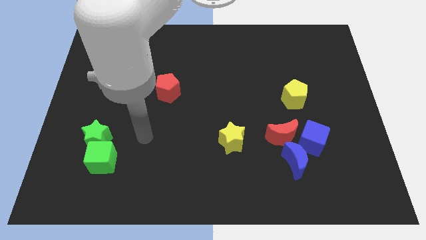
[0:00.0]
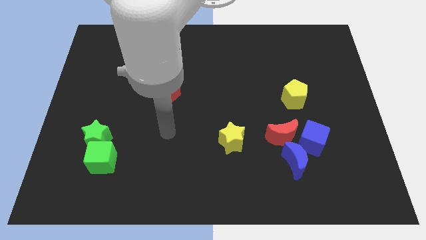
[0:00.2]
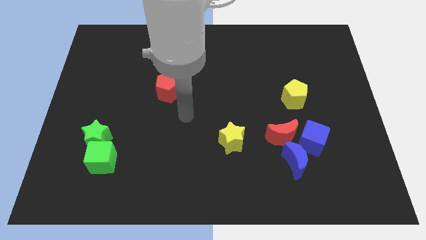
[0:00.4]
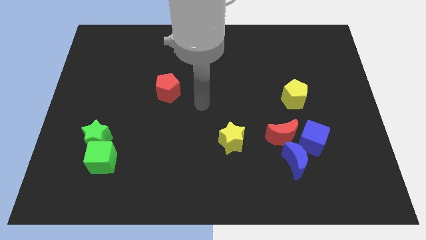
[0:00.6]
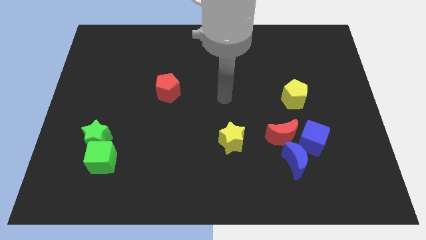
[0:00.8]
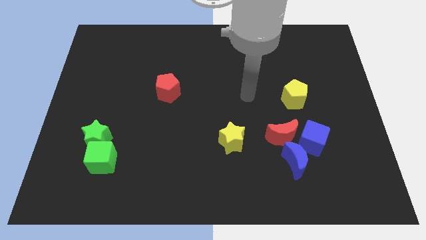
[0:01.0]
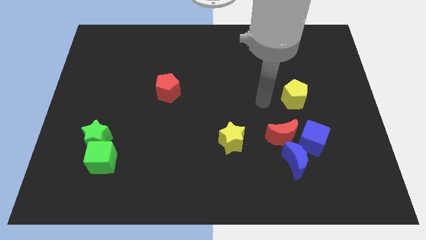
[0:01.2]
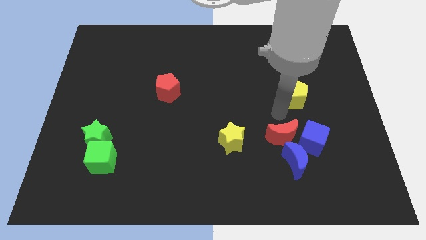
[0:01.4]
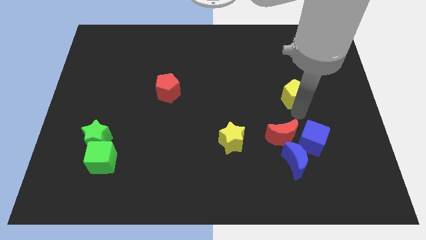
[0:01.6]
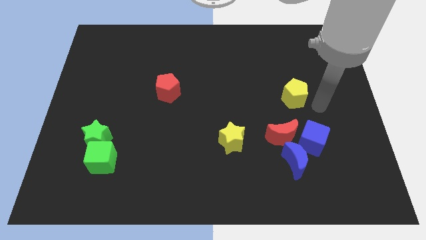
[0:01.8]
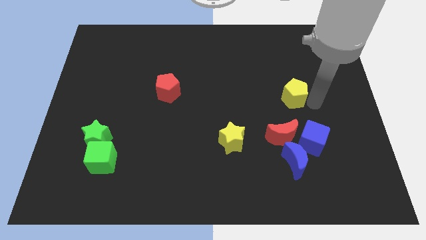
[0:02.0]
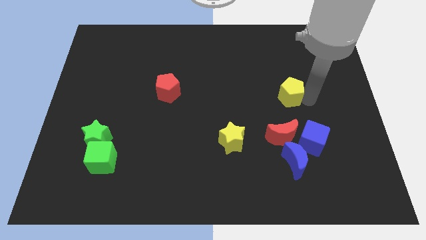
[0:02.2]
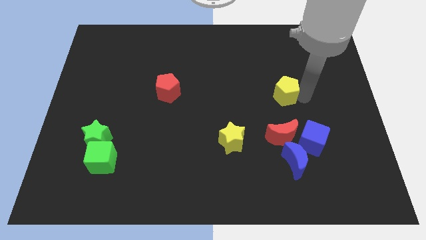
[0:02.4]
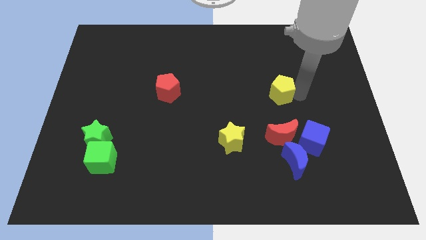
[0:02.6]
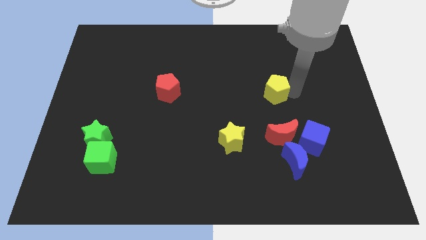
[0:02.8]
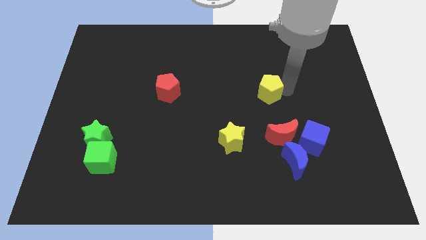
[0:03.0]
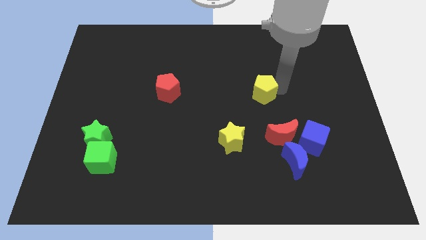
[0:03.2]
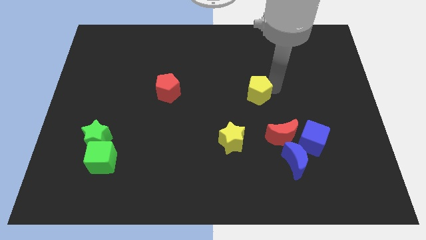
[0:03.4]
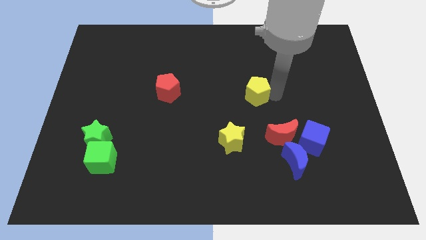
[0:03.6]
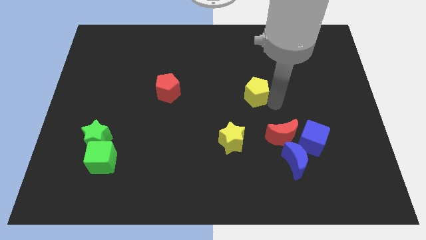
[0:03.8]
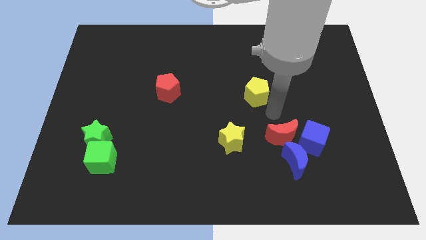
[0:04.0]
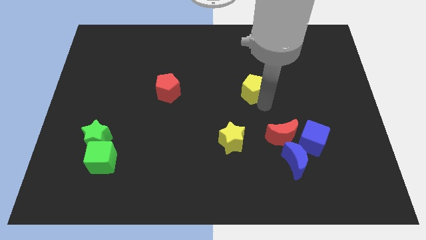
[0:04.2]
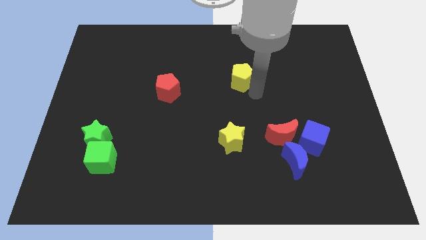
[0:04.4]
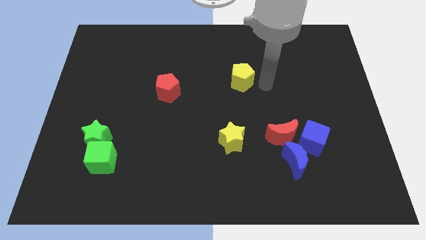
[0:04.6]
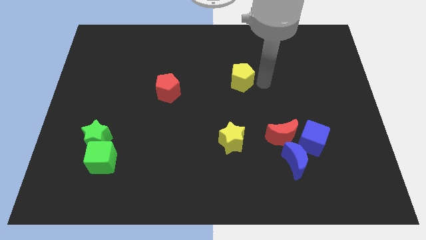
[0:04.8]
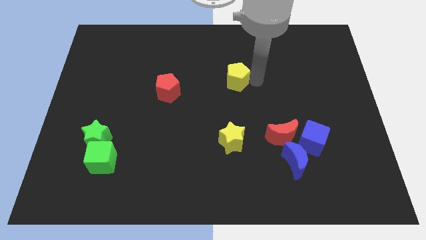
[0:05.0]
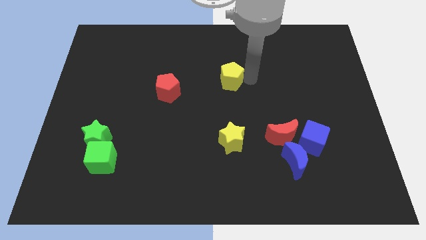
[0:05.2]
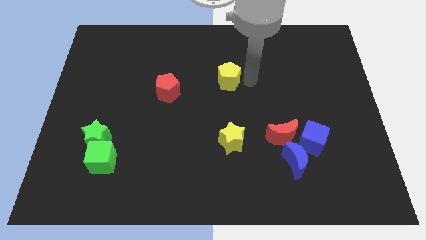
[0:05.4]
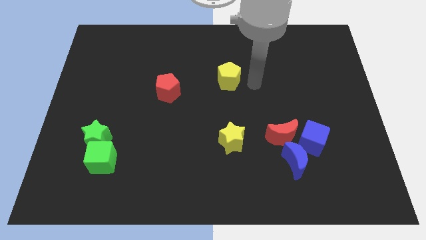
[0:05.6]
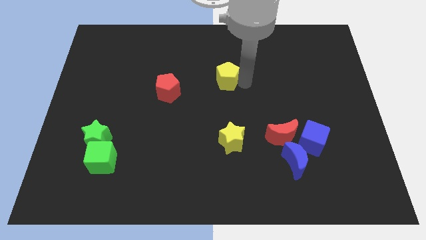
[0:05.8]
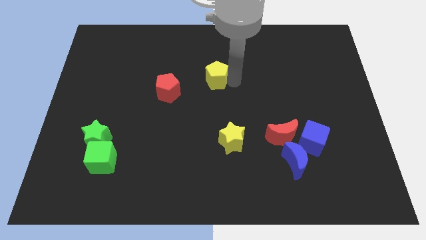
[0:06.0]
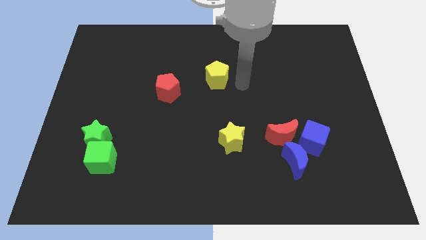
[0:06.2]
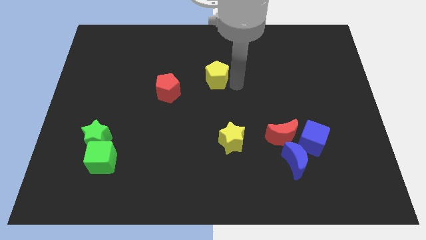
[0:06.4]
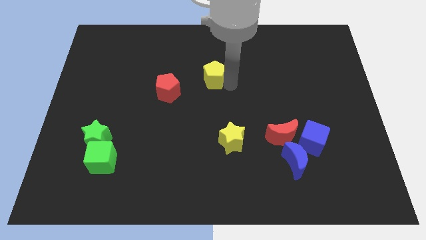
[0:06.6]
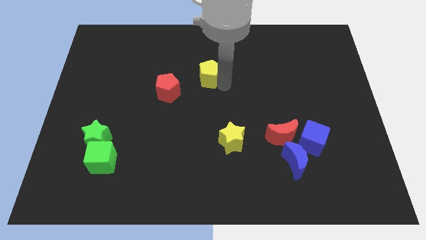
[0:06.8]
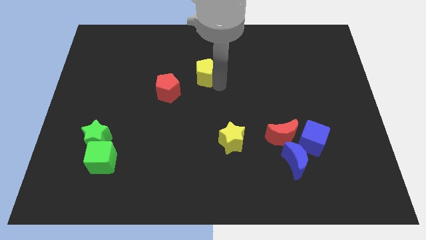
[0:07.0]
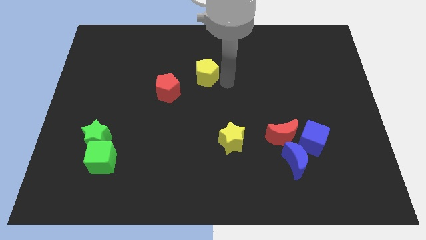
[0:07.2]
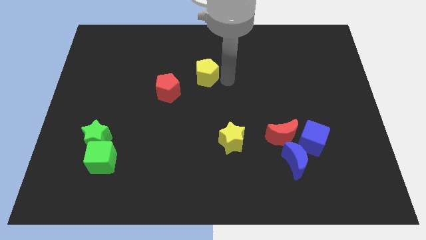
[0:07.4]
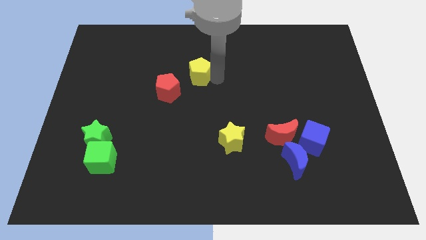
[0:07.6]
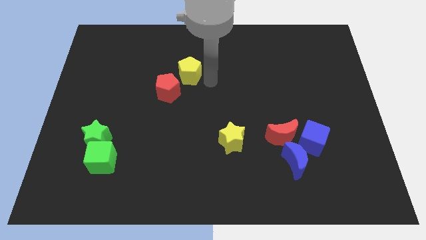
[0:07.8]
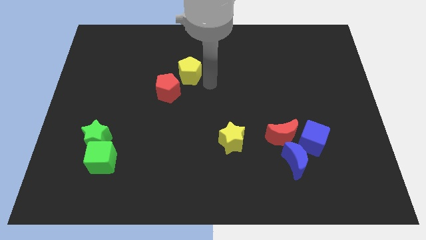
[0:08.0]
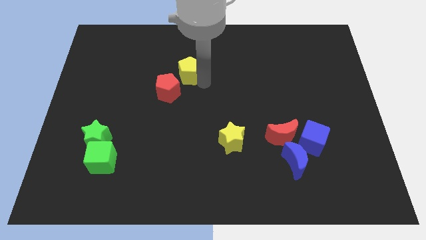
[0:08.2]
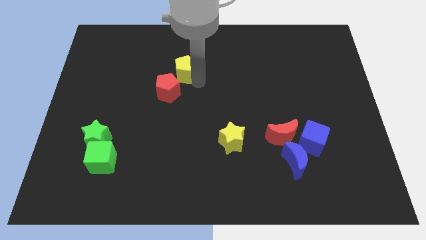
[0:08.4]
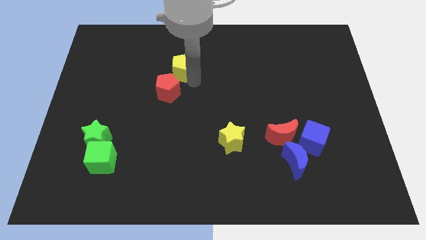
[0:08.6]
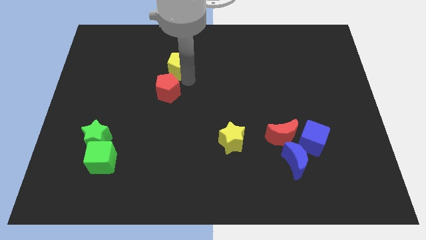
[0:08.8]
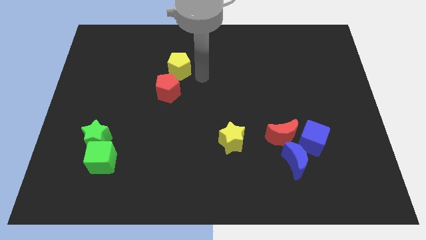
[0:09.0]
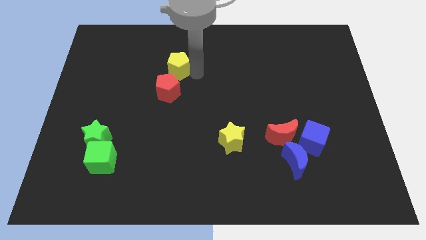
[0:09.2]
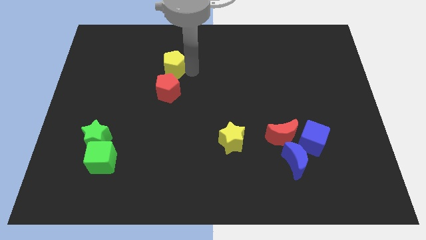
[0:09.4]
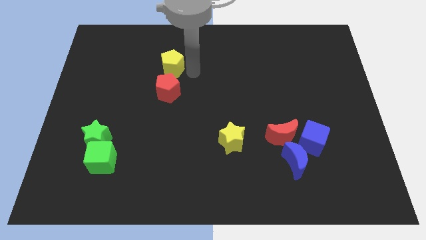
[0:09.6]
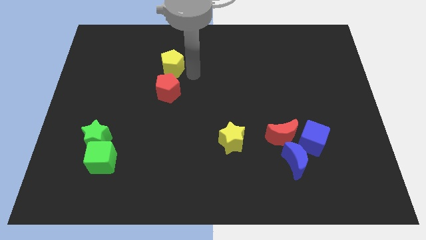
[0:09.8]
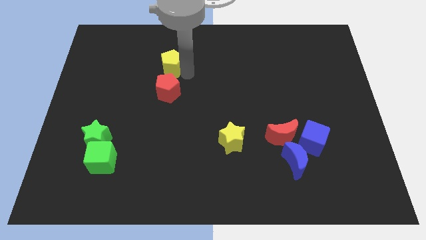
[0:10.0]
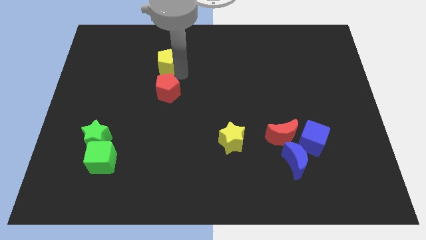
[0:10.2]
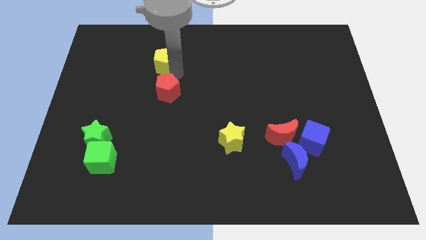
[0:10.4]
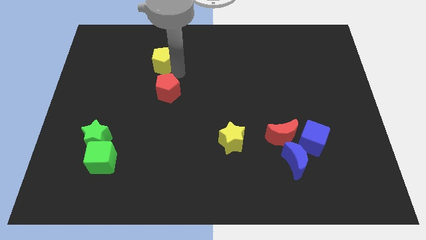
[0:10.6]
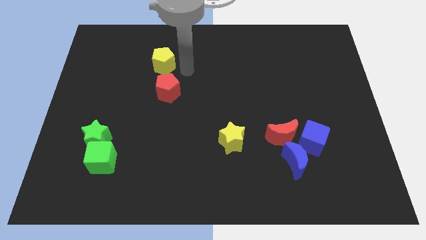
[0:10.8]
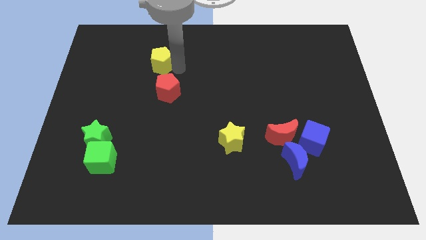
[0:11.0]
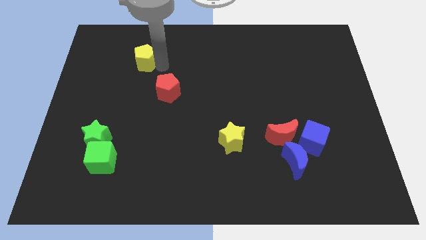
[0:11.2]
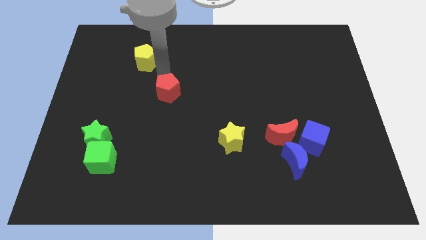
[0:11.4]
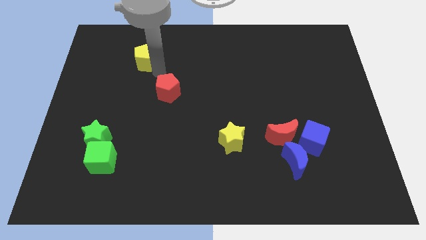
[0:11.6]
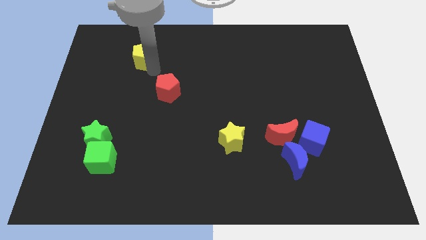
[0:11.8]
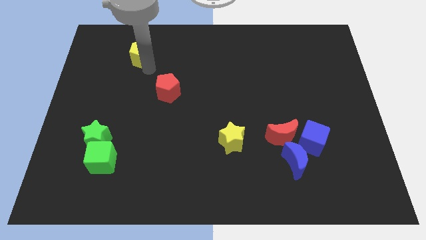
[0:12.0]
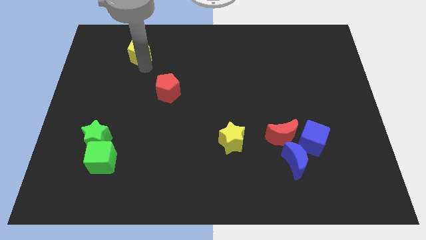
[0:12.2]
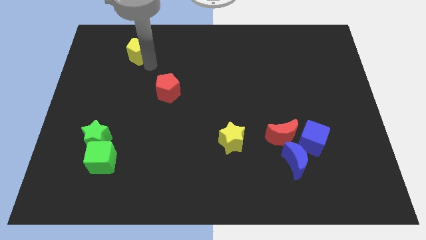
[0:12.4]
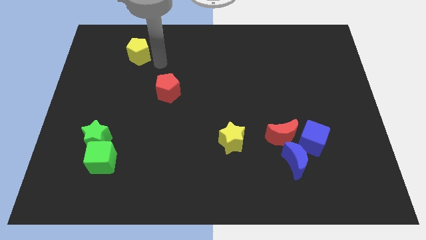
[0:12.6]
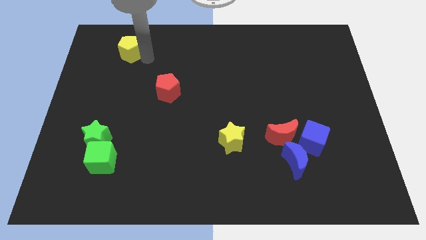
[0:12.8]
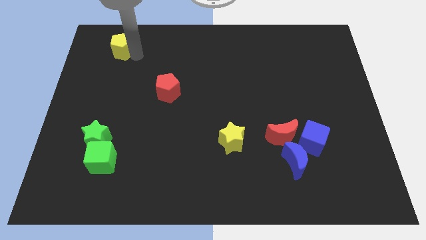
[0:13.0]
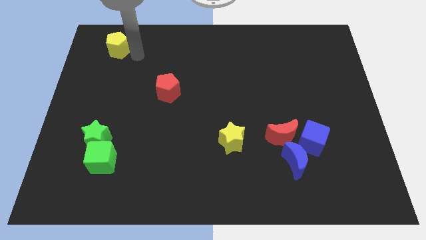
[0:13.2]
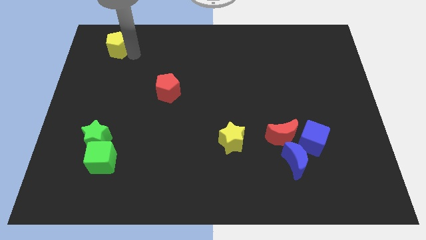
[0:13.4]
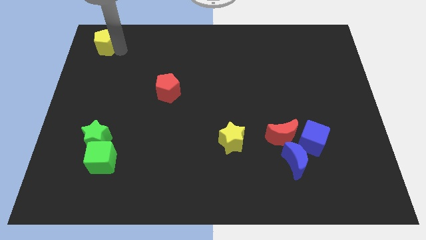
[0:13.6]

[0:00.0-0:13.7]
move the yellow pentagon to the top left corner

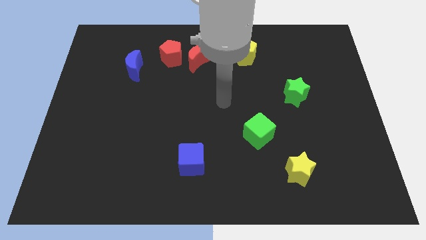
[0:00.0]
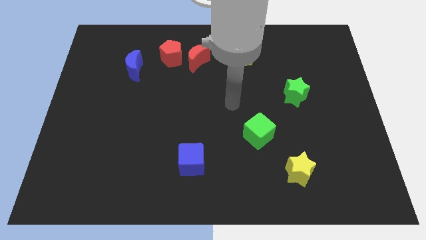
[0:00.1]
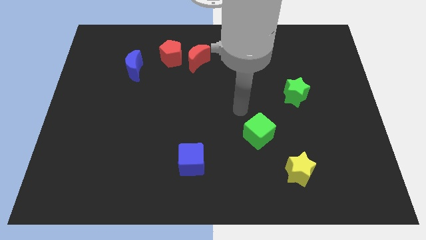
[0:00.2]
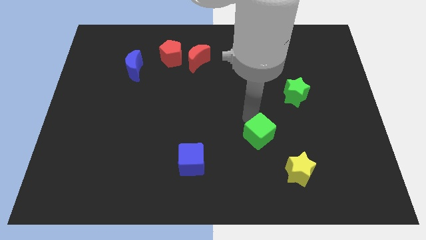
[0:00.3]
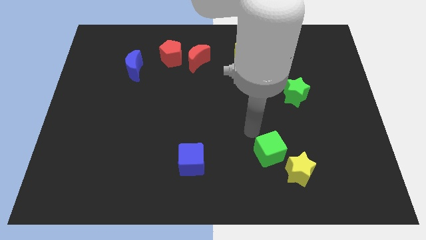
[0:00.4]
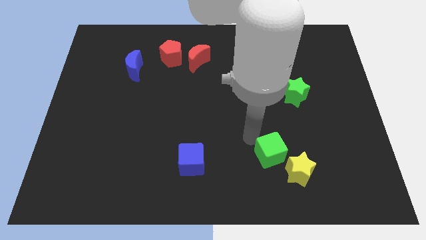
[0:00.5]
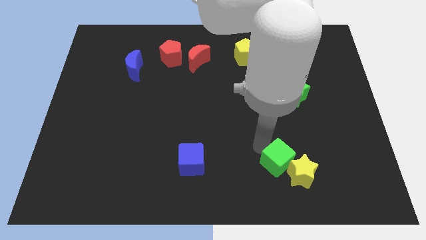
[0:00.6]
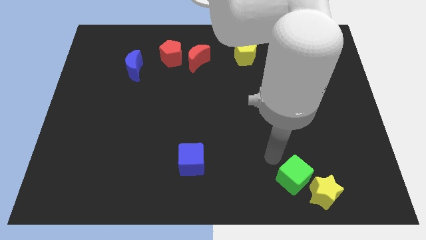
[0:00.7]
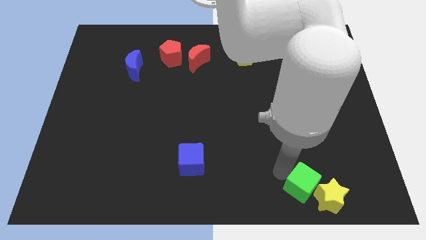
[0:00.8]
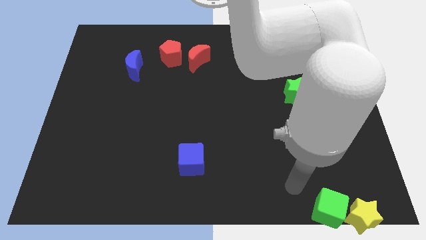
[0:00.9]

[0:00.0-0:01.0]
slide the yellow star to the lower right corner

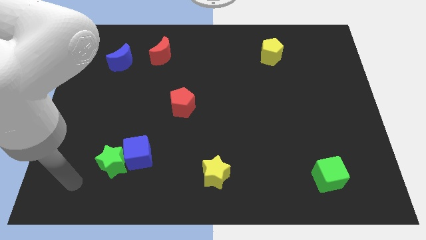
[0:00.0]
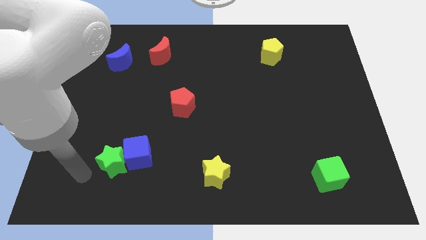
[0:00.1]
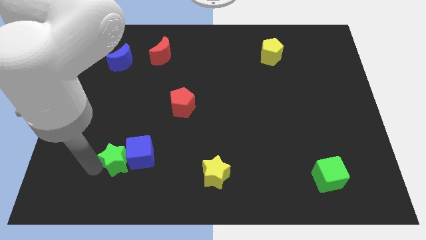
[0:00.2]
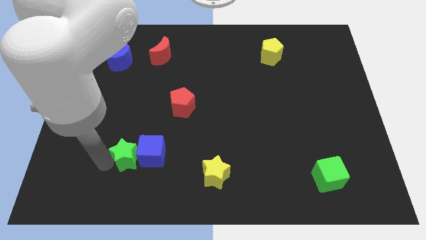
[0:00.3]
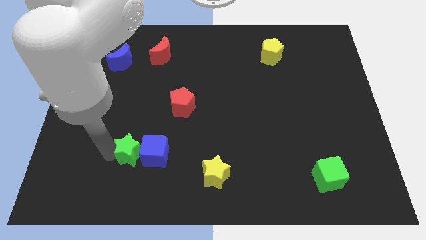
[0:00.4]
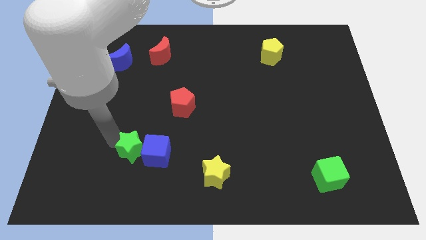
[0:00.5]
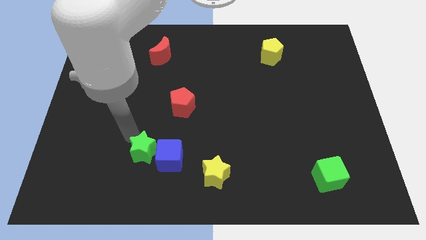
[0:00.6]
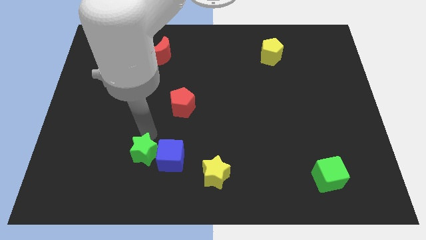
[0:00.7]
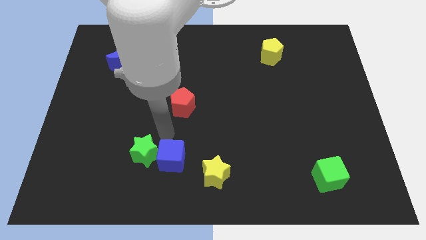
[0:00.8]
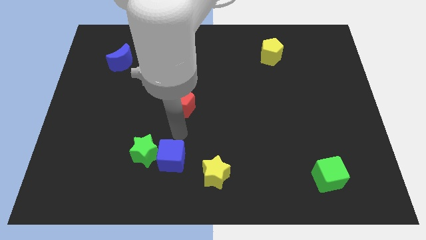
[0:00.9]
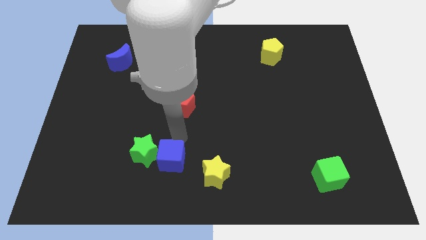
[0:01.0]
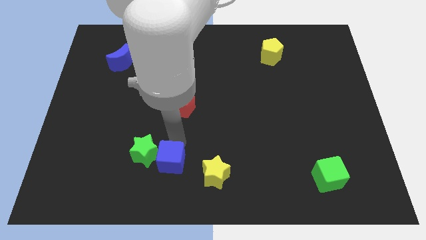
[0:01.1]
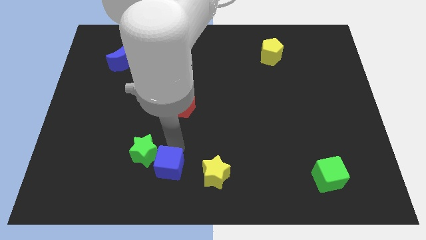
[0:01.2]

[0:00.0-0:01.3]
put the blue cube to the bottom side
